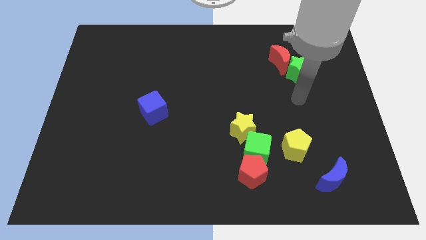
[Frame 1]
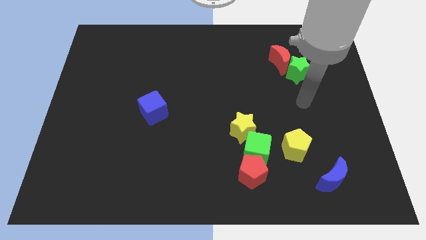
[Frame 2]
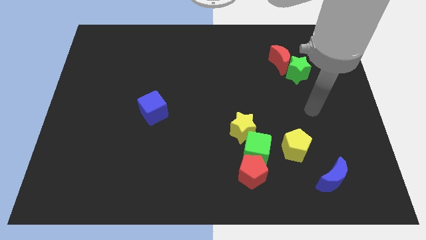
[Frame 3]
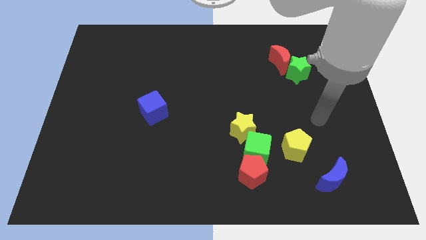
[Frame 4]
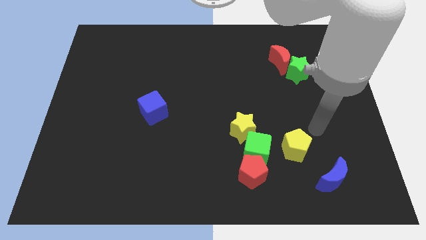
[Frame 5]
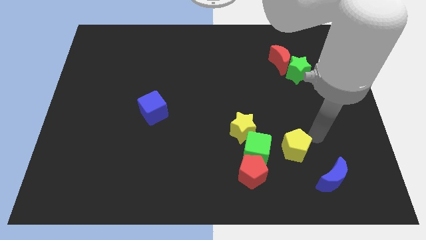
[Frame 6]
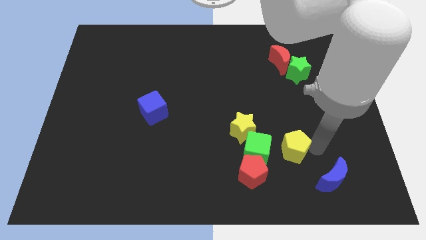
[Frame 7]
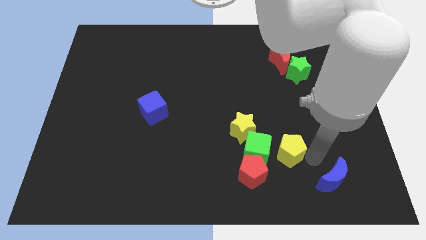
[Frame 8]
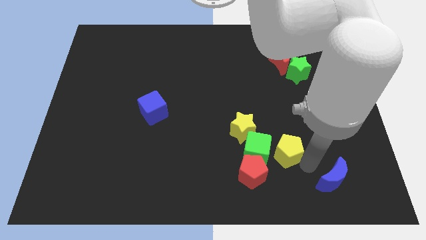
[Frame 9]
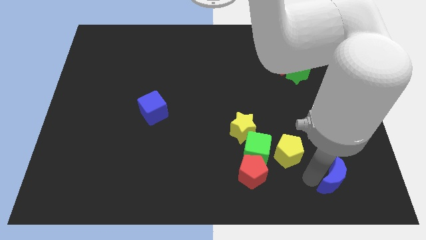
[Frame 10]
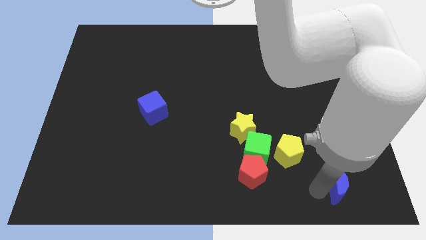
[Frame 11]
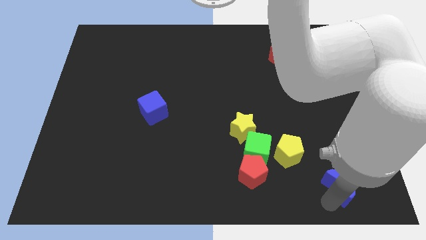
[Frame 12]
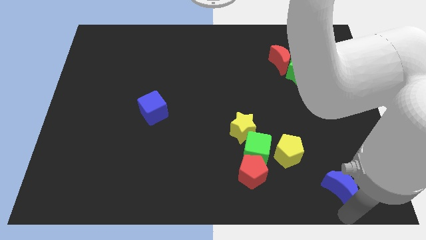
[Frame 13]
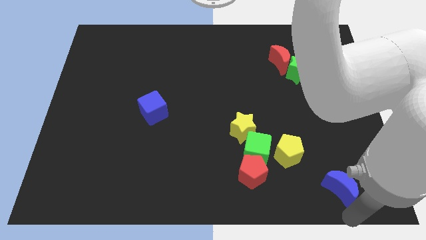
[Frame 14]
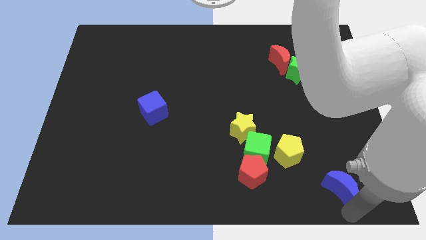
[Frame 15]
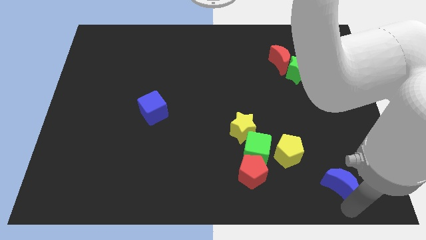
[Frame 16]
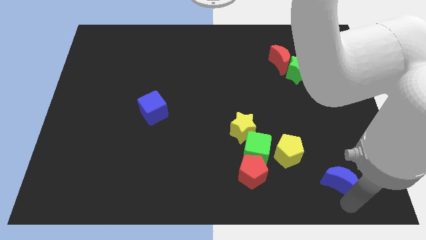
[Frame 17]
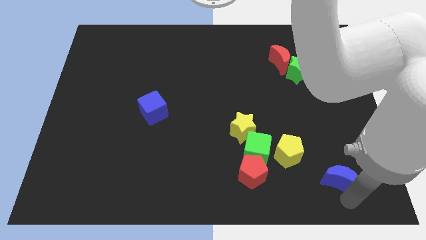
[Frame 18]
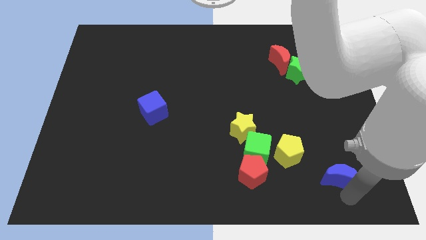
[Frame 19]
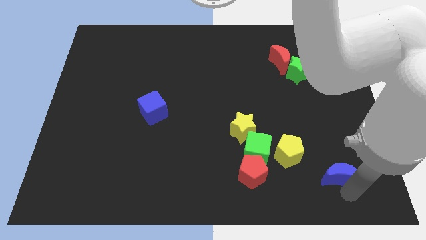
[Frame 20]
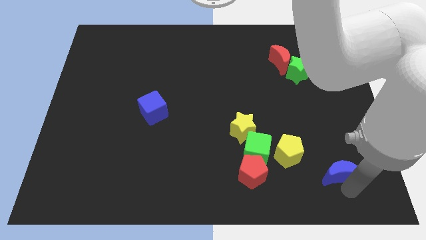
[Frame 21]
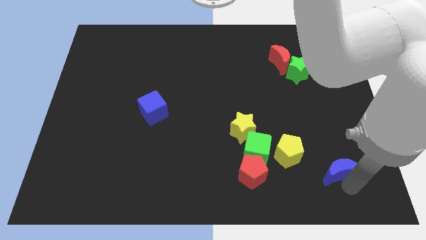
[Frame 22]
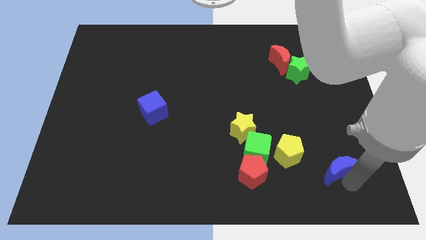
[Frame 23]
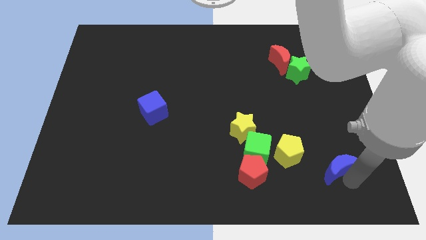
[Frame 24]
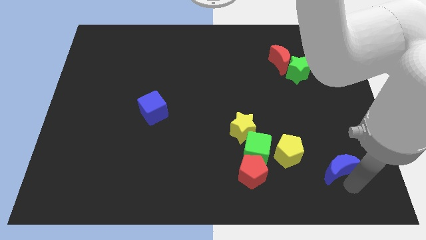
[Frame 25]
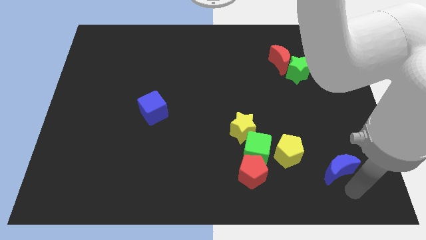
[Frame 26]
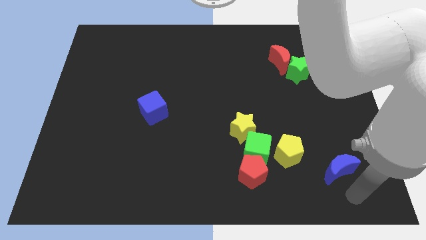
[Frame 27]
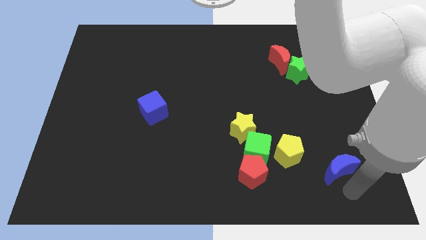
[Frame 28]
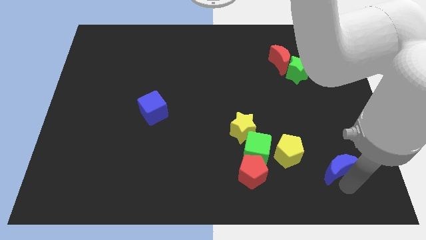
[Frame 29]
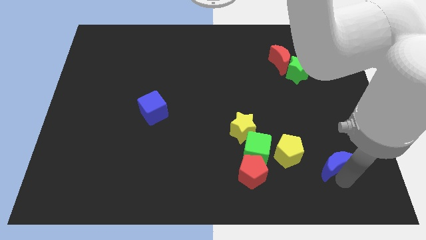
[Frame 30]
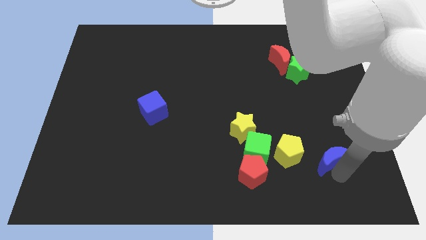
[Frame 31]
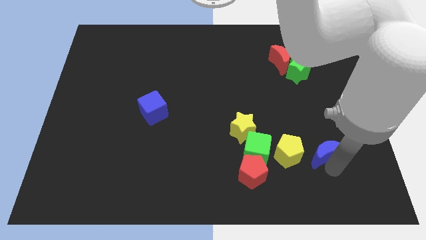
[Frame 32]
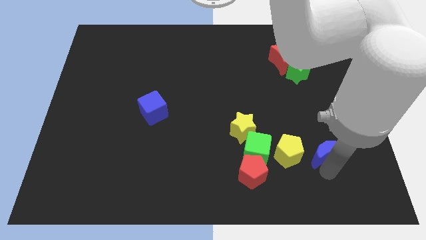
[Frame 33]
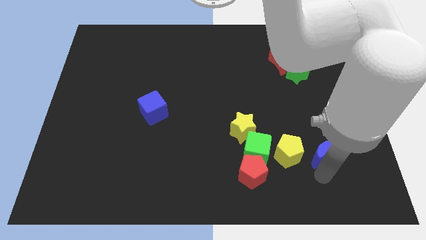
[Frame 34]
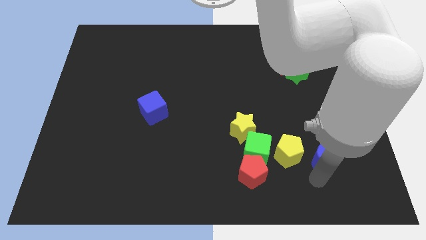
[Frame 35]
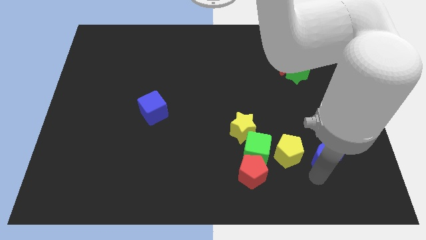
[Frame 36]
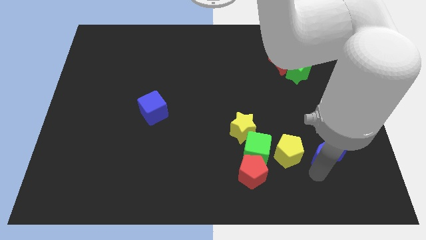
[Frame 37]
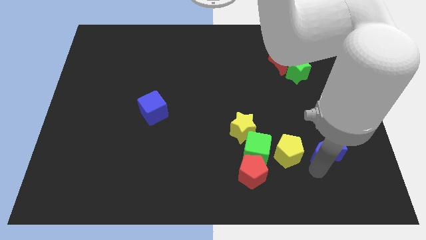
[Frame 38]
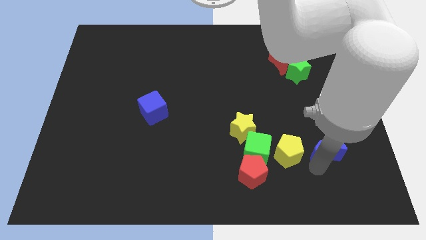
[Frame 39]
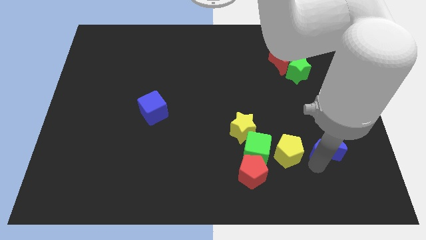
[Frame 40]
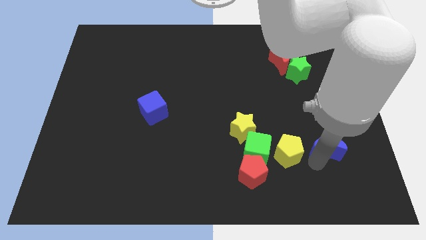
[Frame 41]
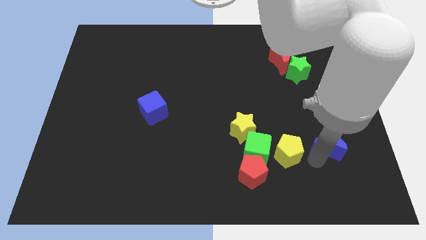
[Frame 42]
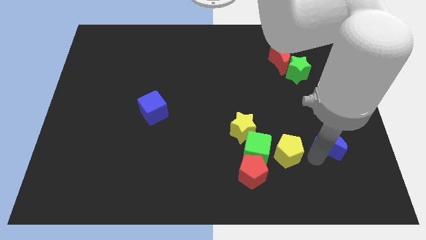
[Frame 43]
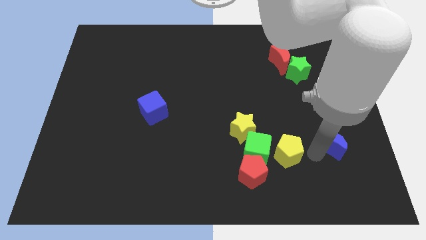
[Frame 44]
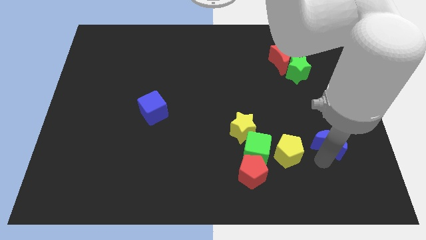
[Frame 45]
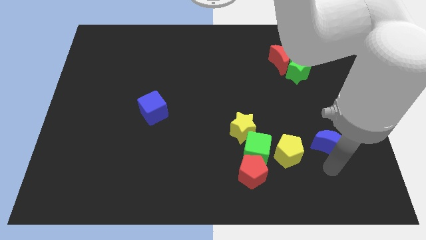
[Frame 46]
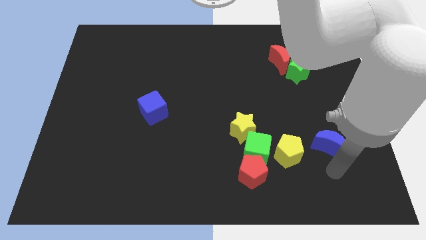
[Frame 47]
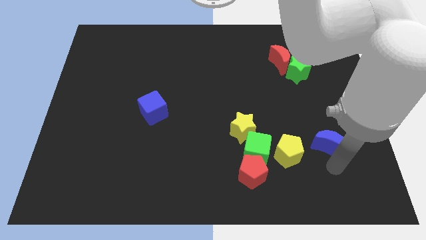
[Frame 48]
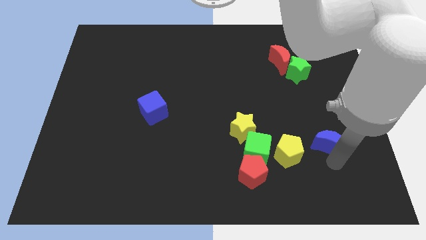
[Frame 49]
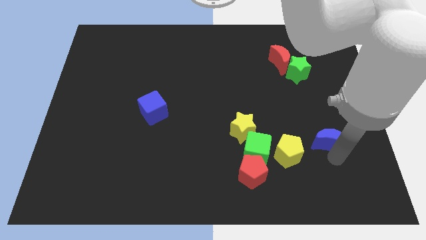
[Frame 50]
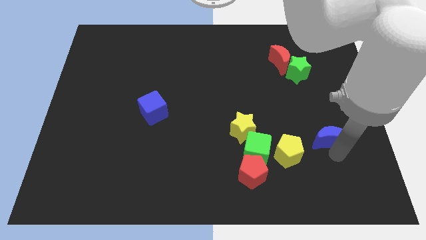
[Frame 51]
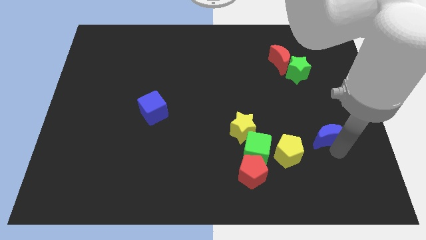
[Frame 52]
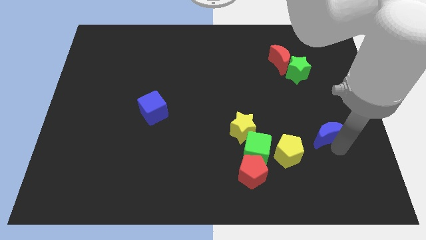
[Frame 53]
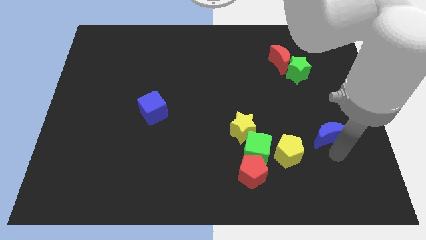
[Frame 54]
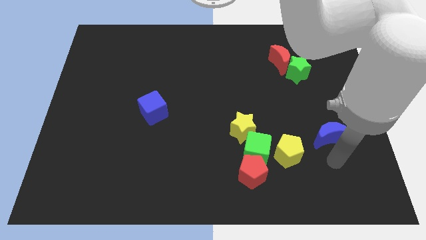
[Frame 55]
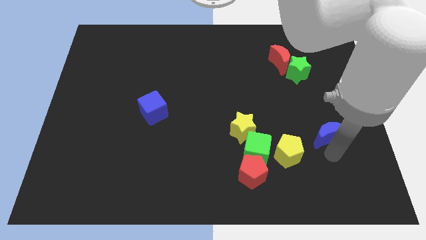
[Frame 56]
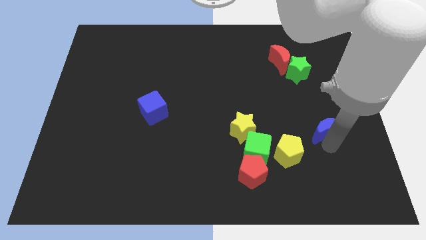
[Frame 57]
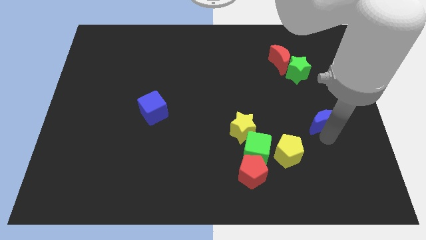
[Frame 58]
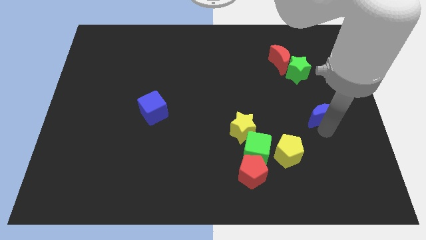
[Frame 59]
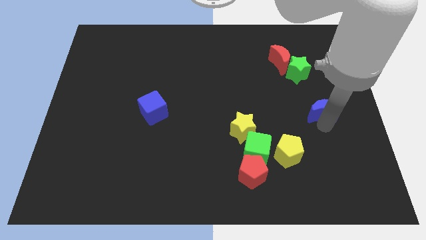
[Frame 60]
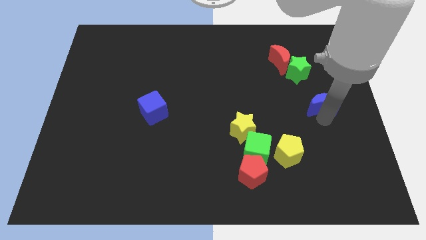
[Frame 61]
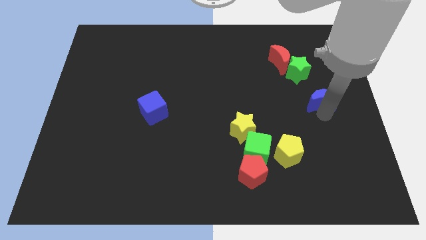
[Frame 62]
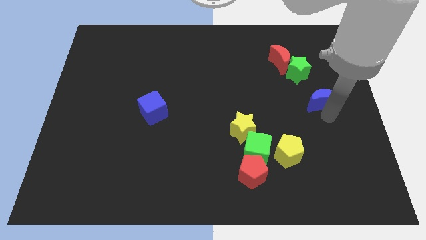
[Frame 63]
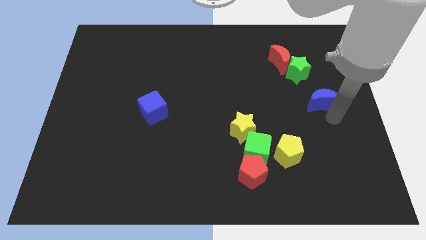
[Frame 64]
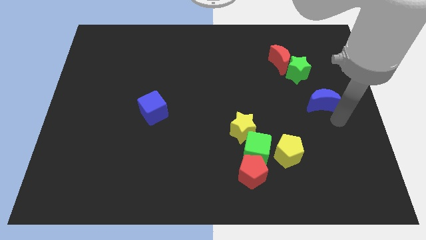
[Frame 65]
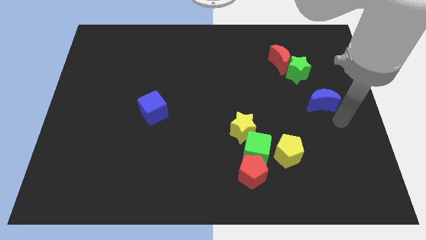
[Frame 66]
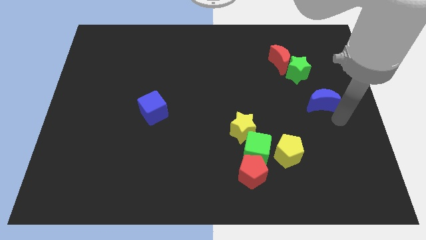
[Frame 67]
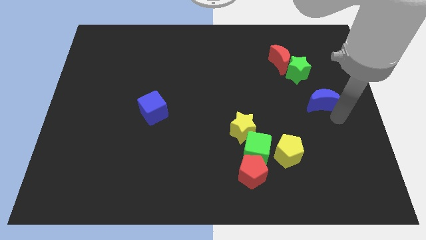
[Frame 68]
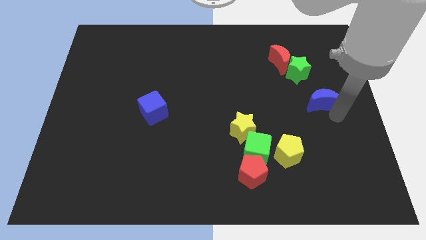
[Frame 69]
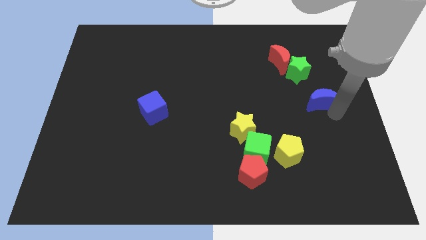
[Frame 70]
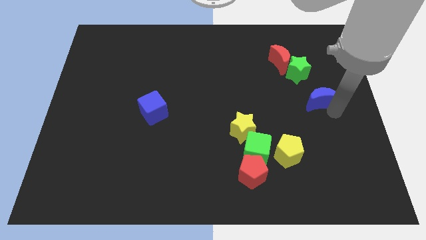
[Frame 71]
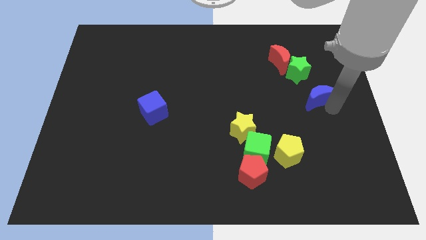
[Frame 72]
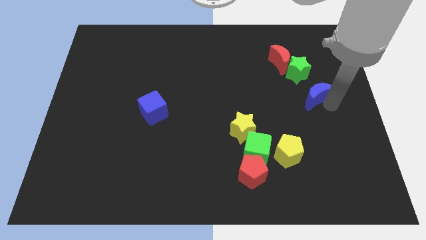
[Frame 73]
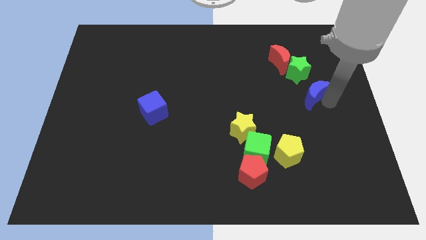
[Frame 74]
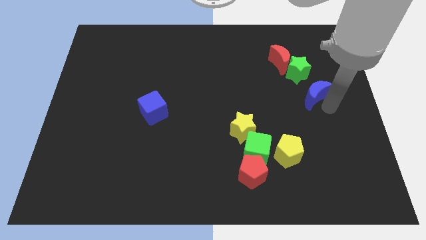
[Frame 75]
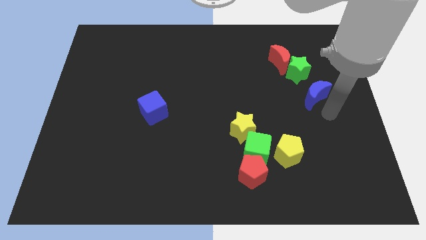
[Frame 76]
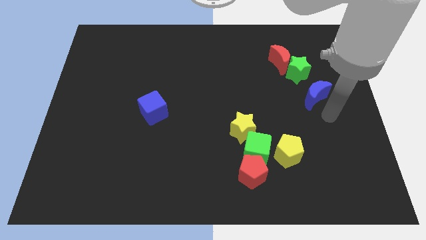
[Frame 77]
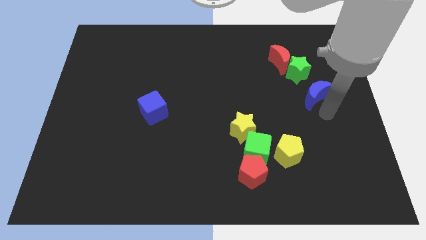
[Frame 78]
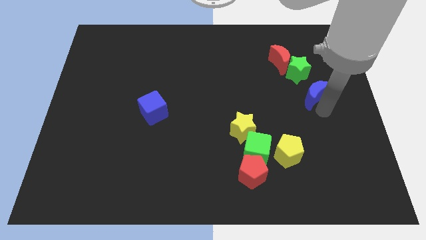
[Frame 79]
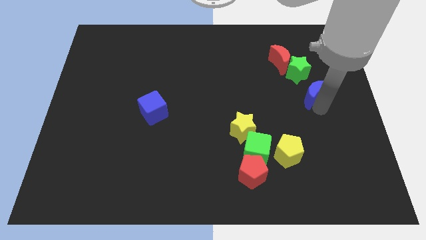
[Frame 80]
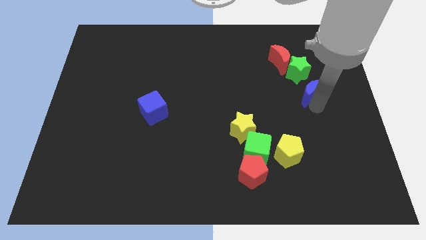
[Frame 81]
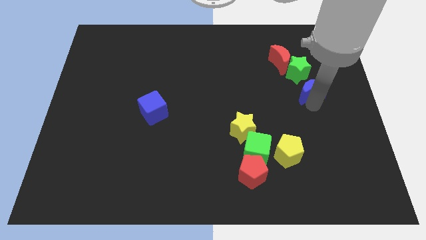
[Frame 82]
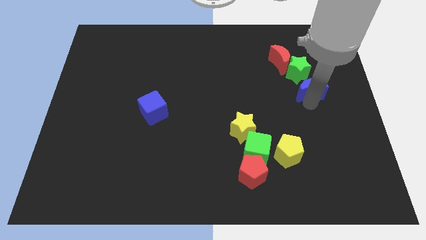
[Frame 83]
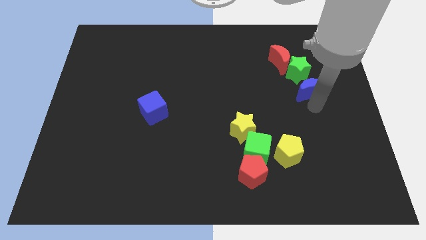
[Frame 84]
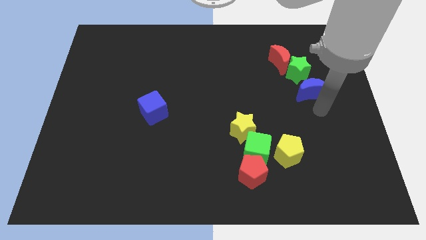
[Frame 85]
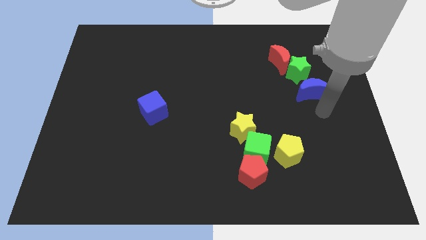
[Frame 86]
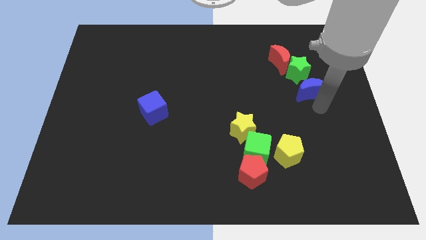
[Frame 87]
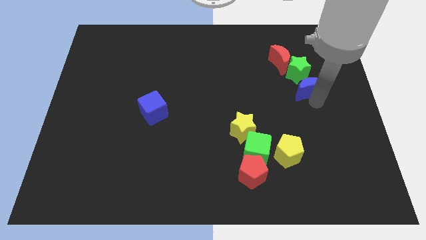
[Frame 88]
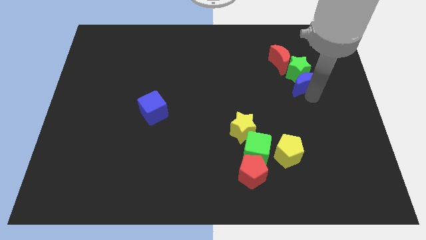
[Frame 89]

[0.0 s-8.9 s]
move the blue moon next to the green star
